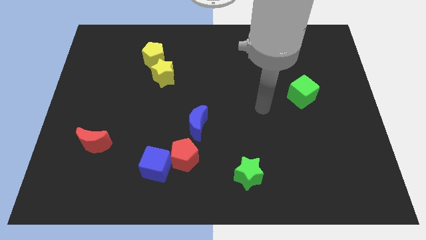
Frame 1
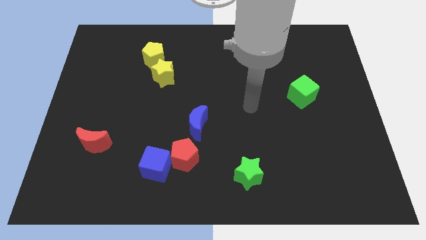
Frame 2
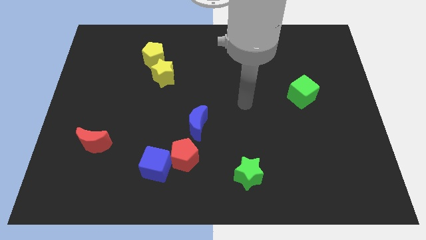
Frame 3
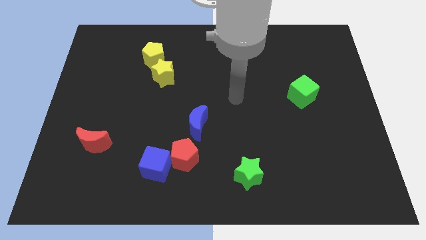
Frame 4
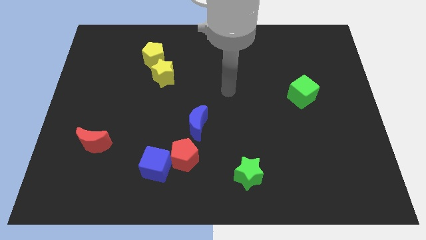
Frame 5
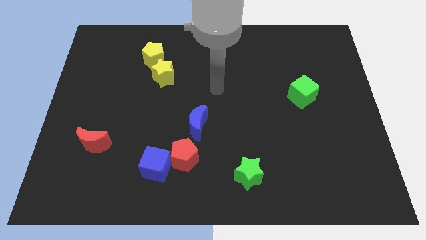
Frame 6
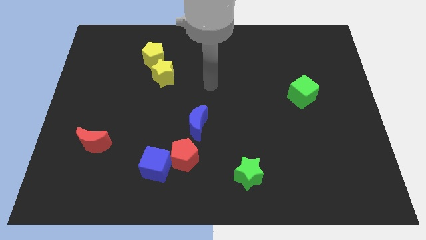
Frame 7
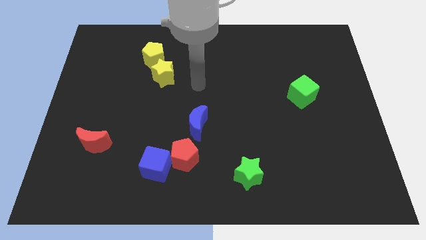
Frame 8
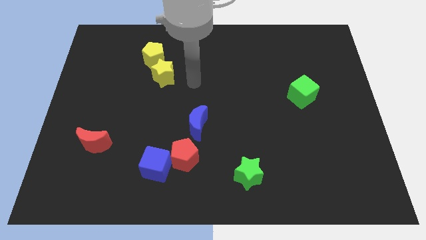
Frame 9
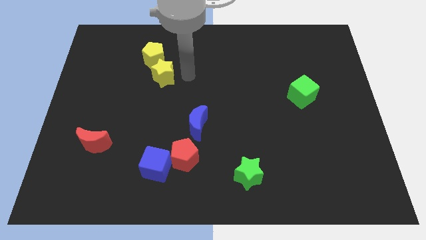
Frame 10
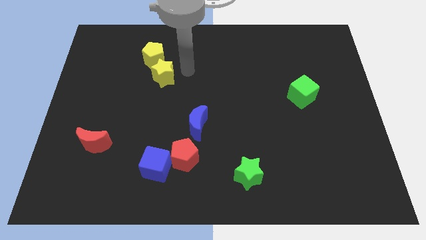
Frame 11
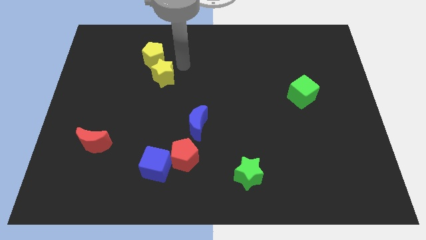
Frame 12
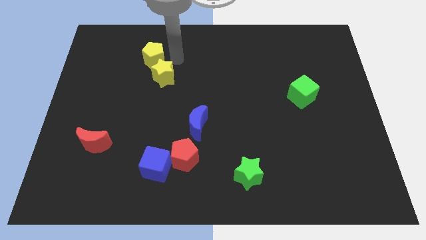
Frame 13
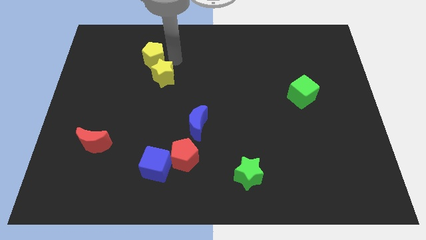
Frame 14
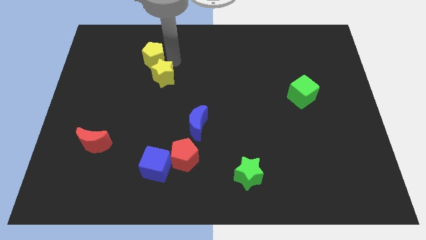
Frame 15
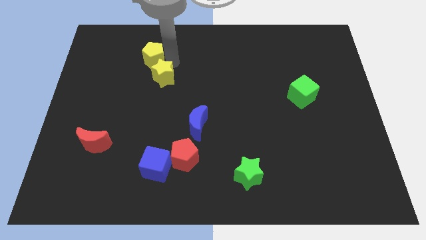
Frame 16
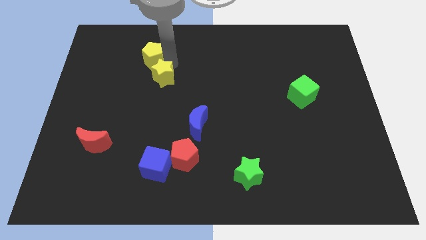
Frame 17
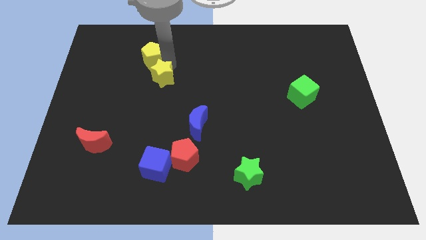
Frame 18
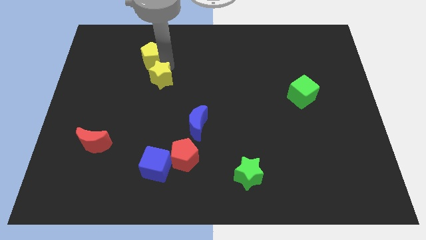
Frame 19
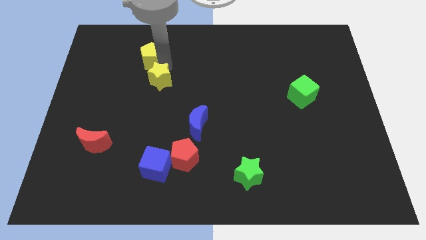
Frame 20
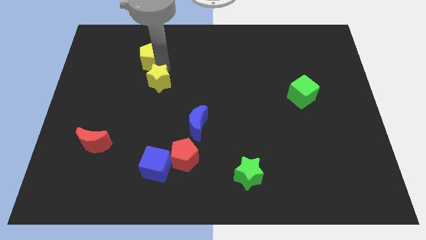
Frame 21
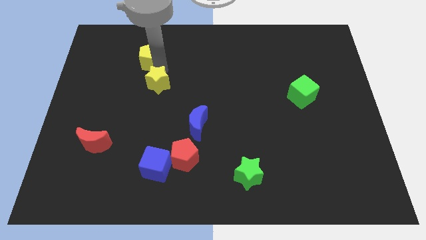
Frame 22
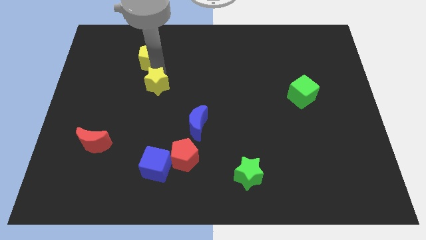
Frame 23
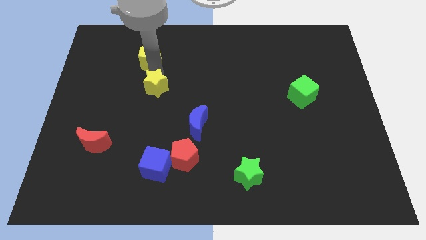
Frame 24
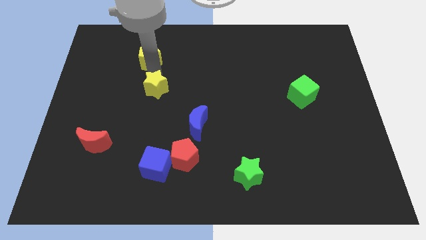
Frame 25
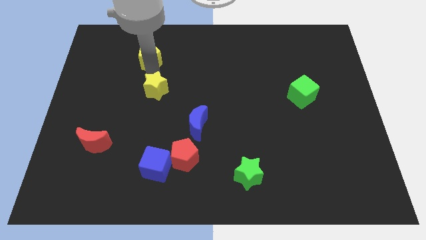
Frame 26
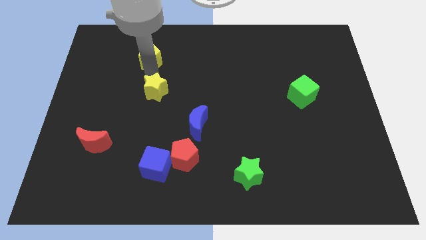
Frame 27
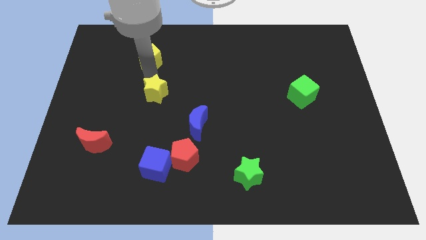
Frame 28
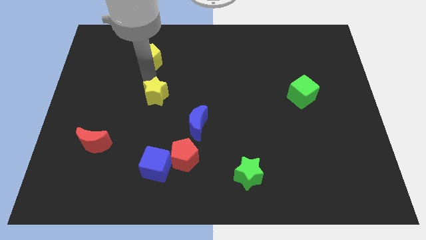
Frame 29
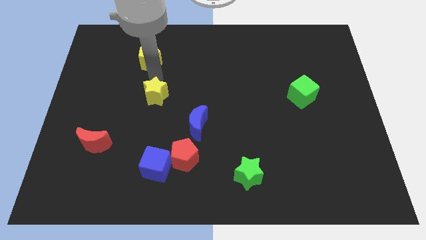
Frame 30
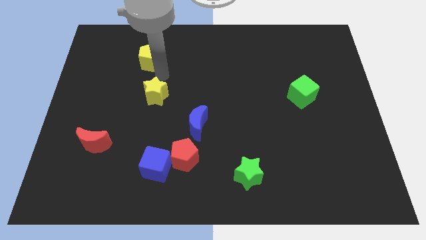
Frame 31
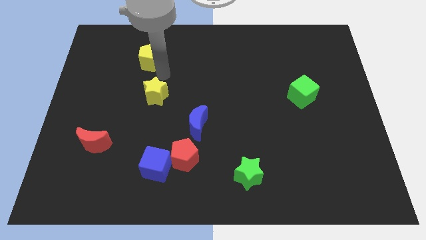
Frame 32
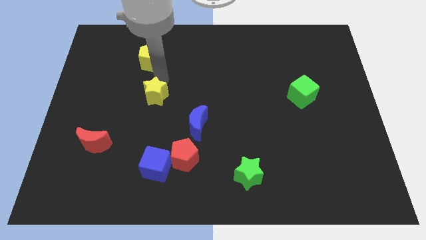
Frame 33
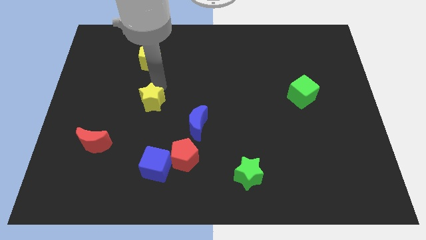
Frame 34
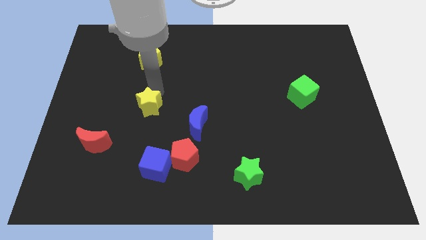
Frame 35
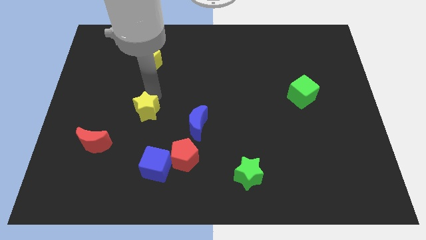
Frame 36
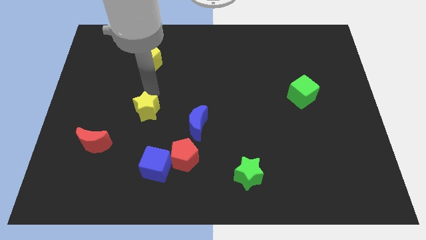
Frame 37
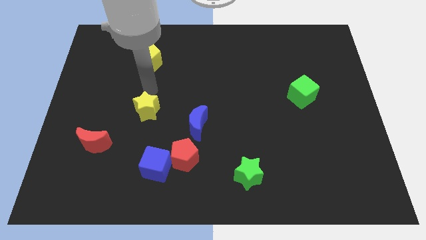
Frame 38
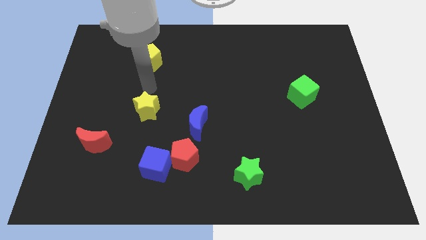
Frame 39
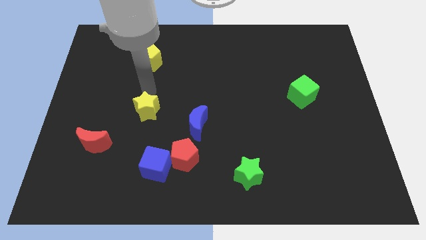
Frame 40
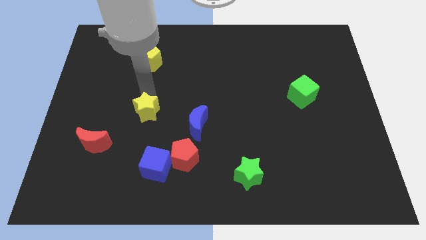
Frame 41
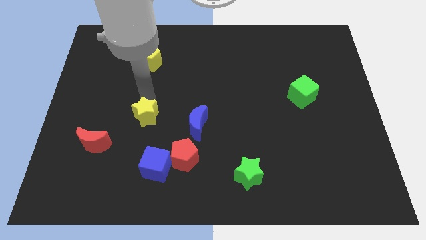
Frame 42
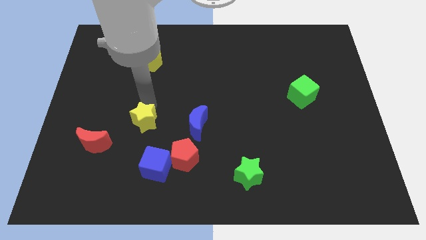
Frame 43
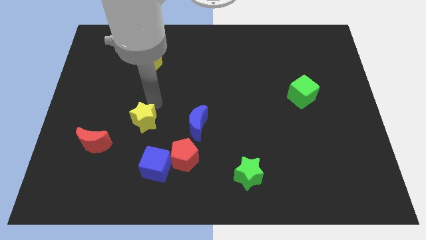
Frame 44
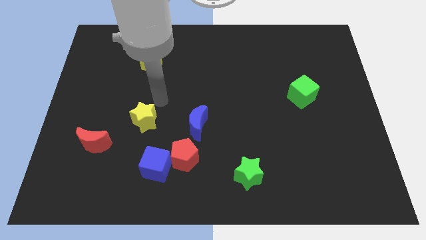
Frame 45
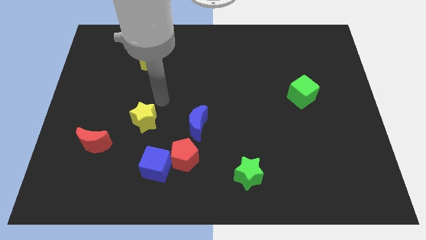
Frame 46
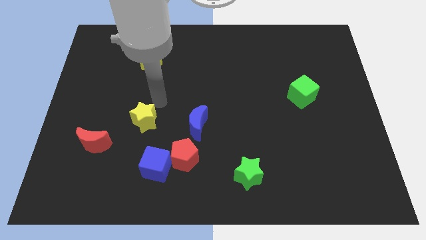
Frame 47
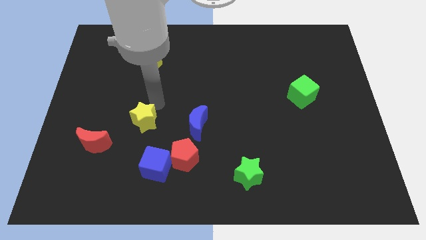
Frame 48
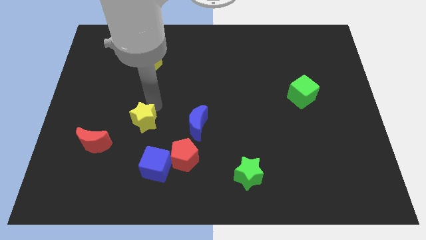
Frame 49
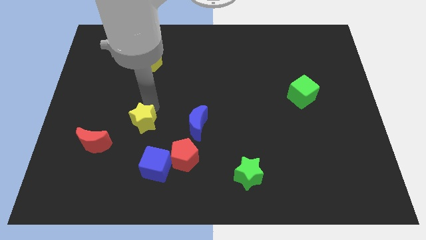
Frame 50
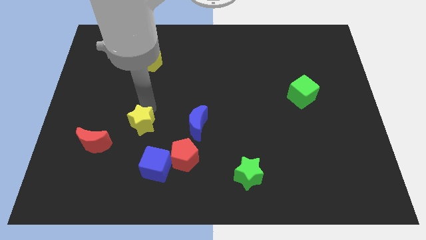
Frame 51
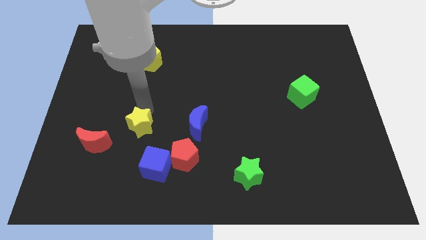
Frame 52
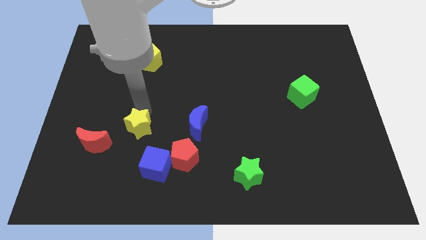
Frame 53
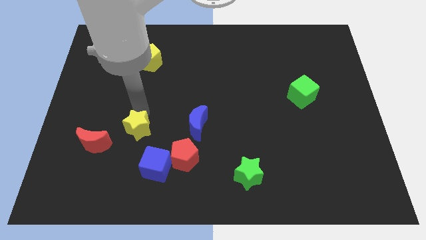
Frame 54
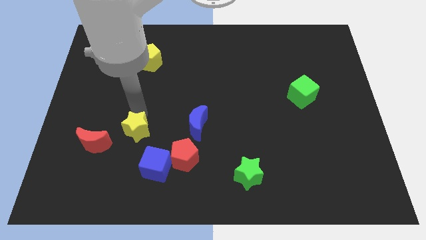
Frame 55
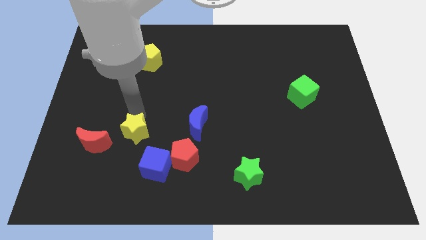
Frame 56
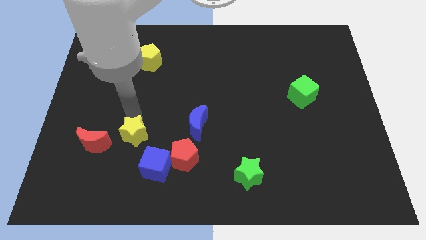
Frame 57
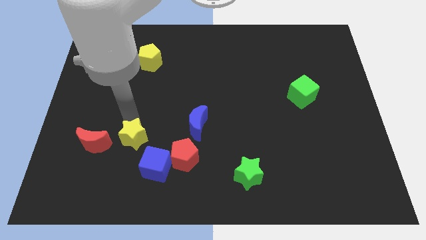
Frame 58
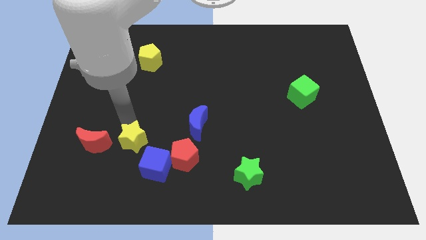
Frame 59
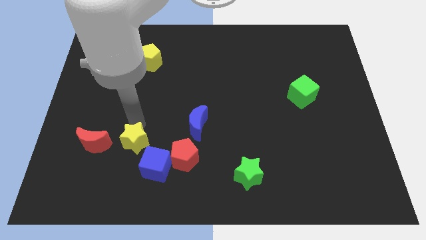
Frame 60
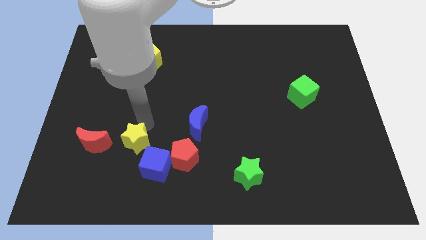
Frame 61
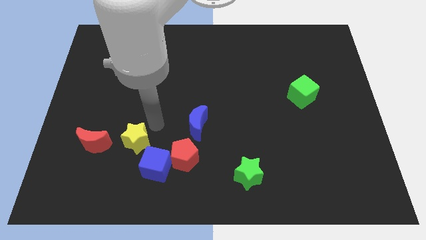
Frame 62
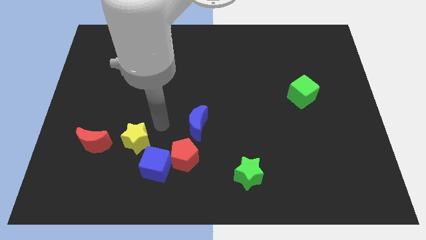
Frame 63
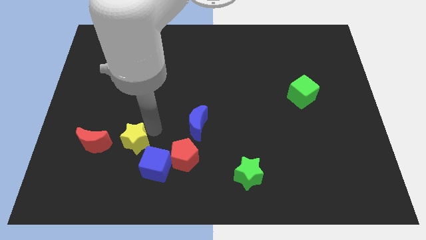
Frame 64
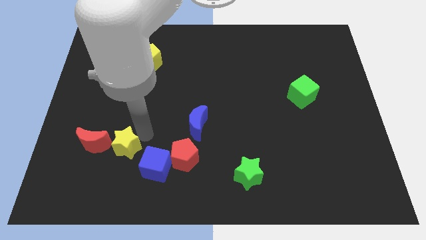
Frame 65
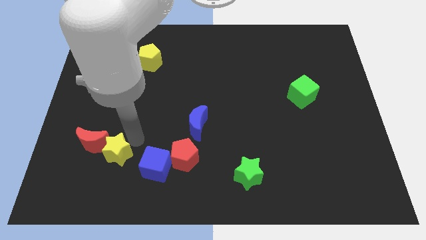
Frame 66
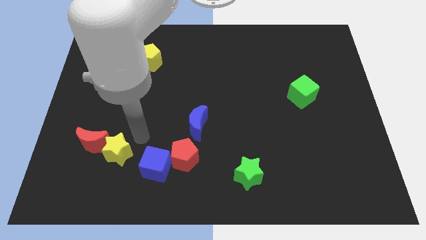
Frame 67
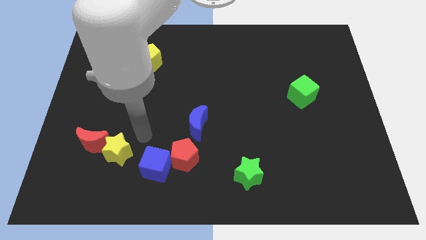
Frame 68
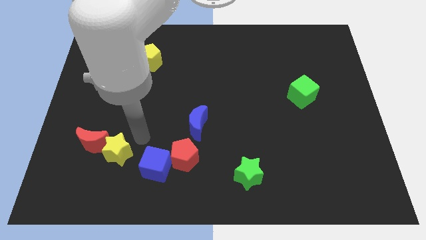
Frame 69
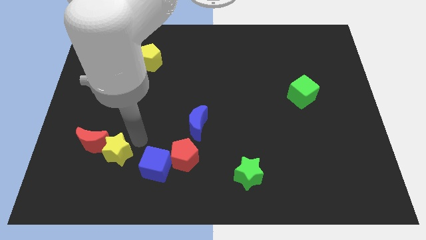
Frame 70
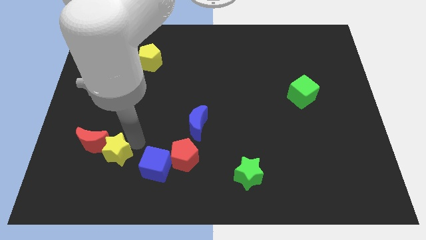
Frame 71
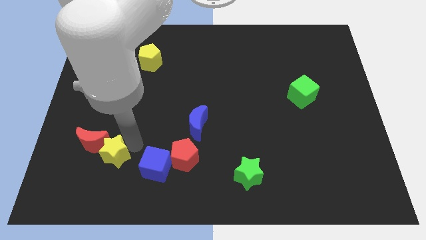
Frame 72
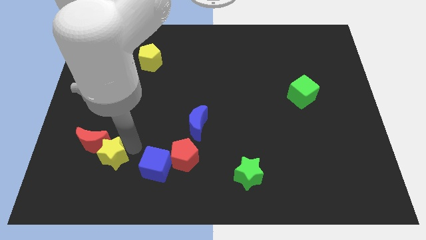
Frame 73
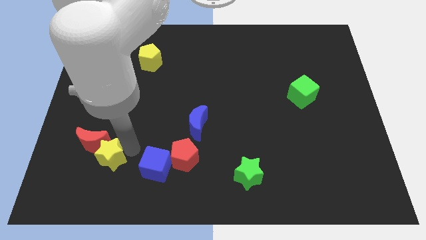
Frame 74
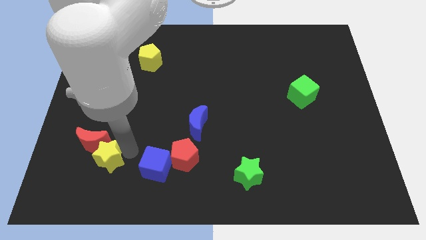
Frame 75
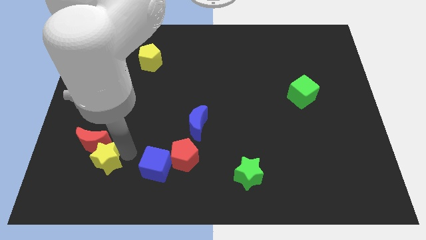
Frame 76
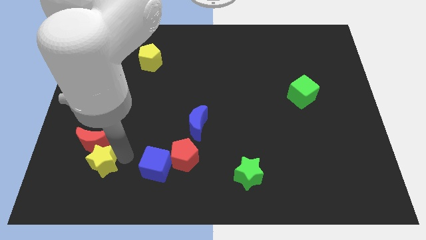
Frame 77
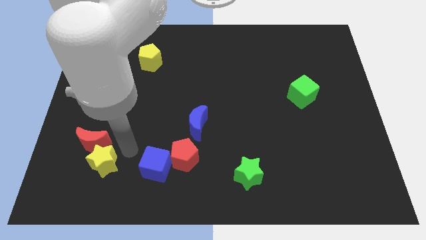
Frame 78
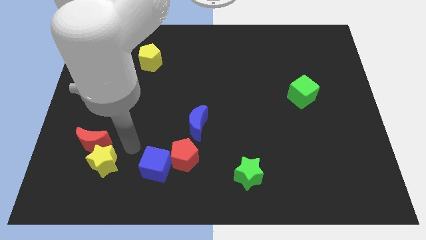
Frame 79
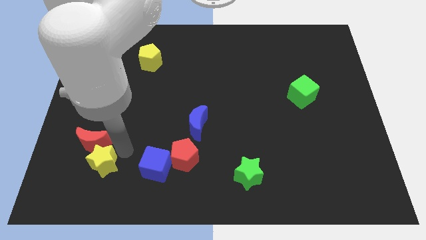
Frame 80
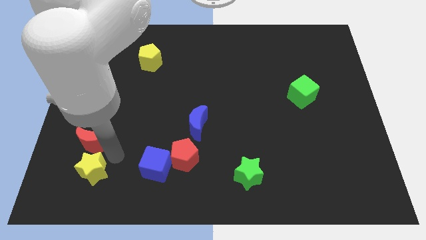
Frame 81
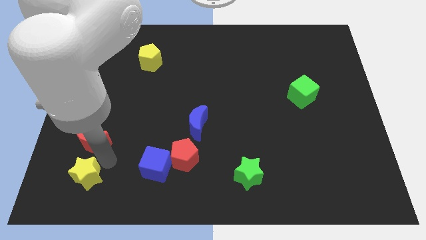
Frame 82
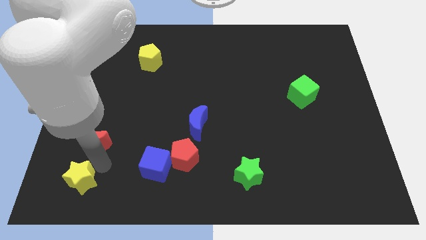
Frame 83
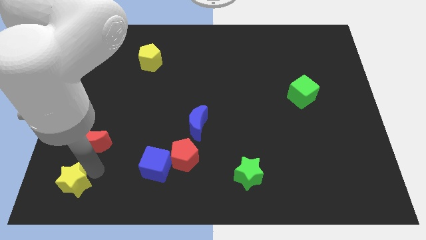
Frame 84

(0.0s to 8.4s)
put the yellow star to the bottom left corner
